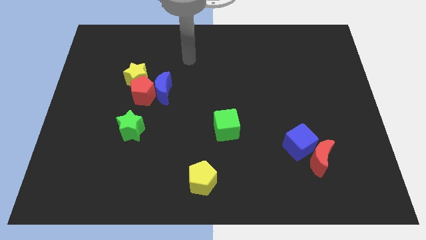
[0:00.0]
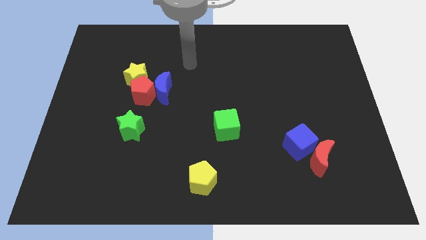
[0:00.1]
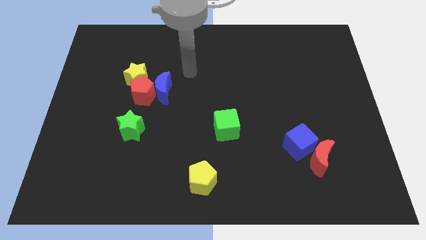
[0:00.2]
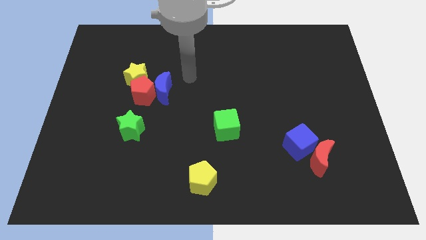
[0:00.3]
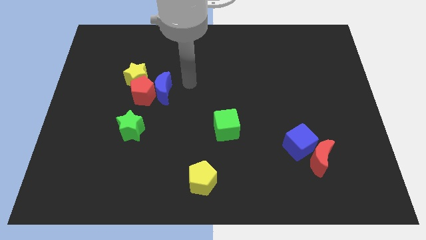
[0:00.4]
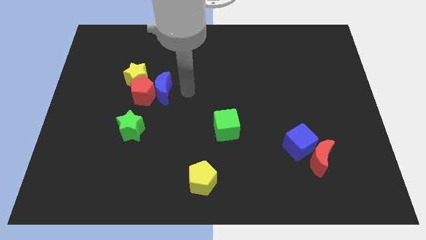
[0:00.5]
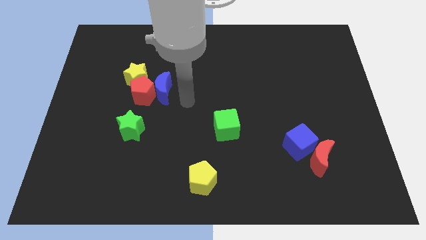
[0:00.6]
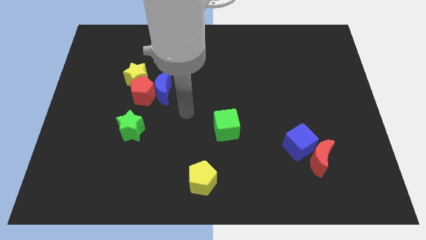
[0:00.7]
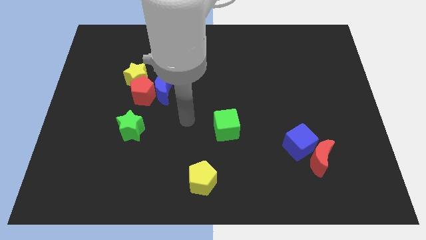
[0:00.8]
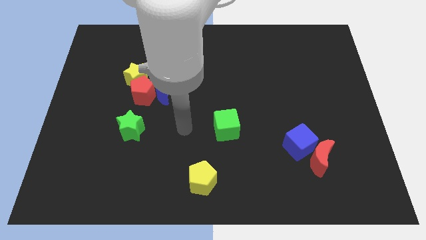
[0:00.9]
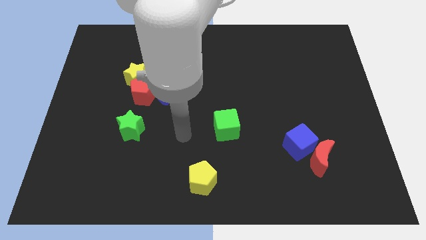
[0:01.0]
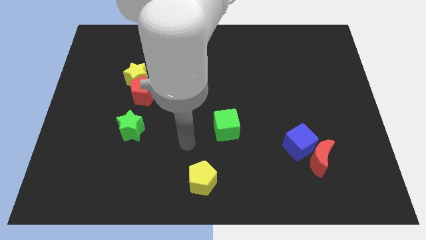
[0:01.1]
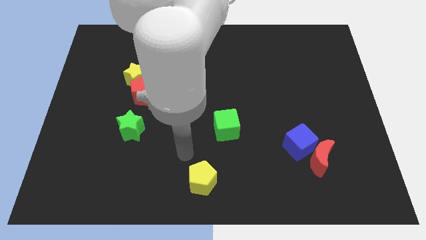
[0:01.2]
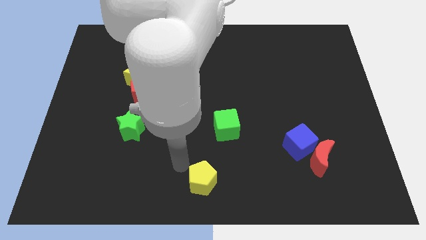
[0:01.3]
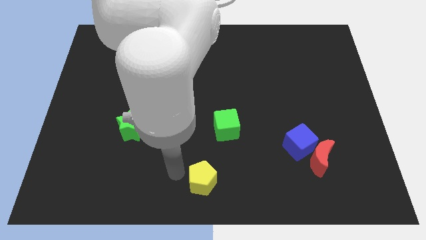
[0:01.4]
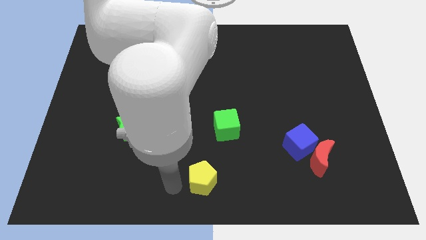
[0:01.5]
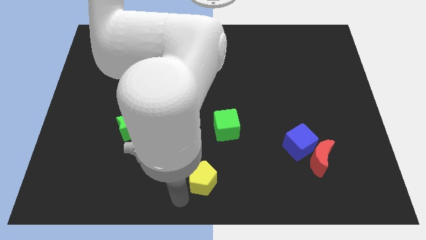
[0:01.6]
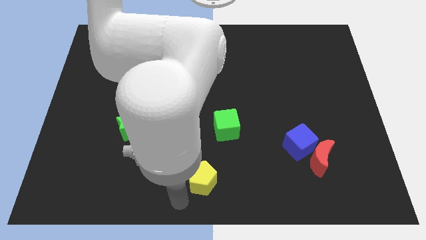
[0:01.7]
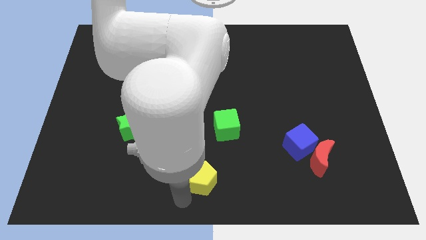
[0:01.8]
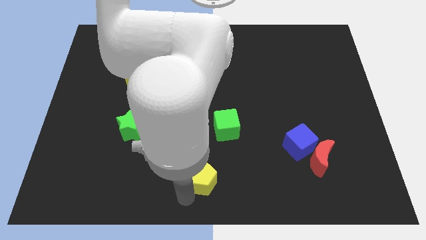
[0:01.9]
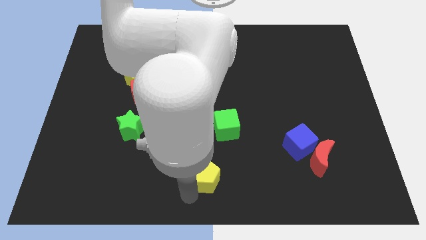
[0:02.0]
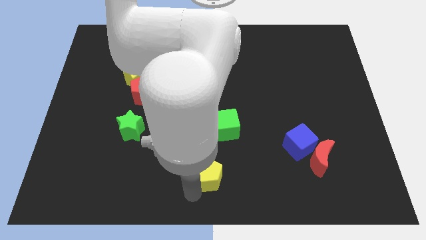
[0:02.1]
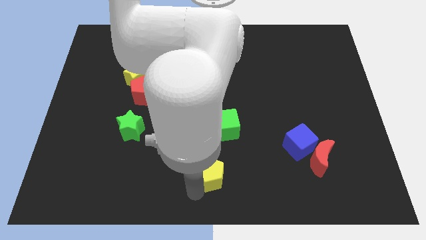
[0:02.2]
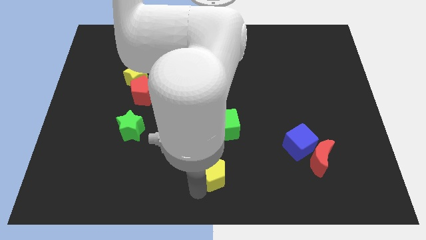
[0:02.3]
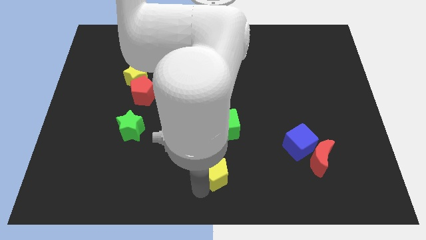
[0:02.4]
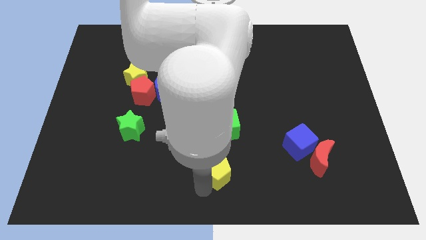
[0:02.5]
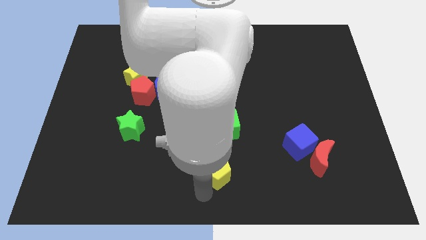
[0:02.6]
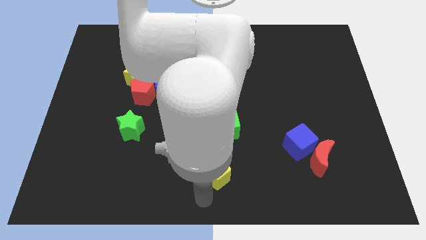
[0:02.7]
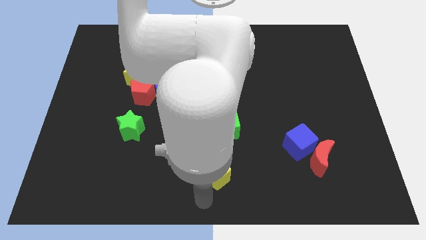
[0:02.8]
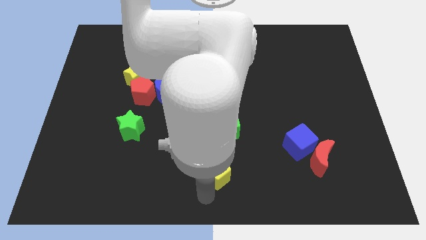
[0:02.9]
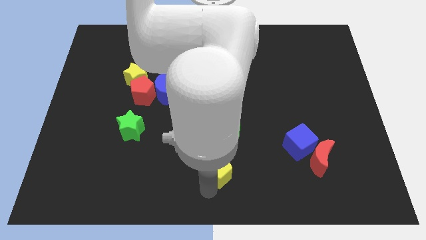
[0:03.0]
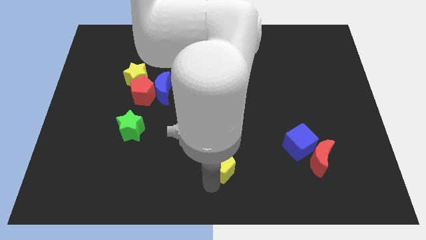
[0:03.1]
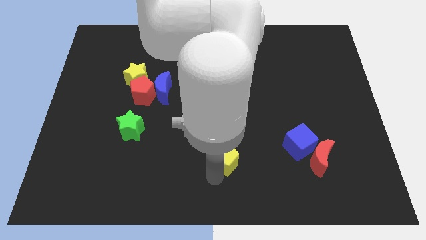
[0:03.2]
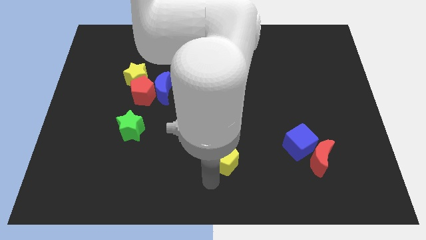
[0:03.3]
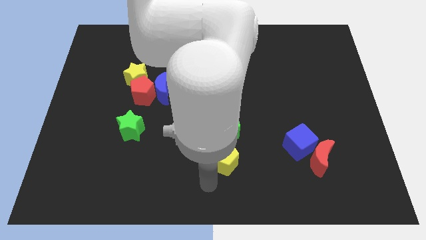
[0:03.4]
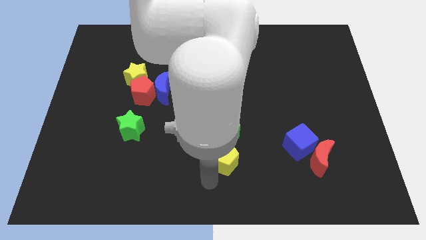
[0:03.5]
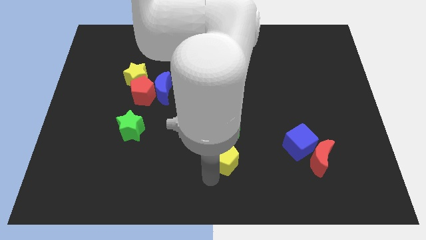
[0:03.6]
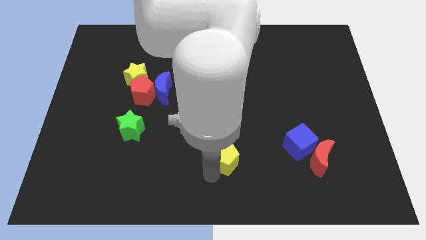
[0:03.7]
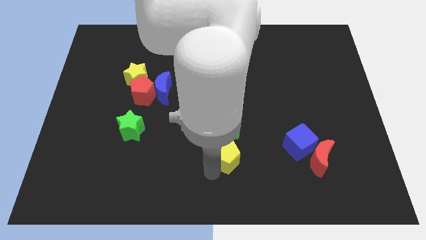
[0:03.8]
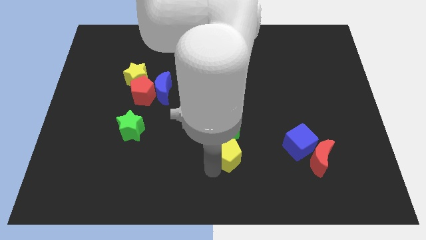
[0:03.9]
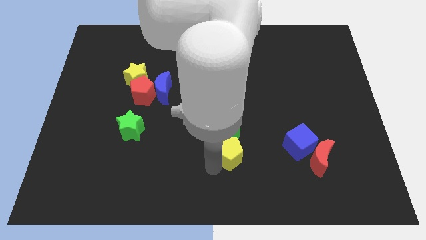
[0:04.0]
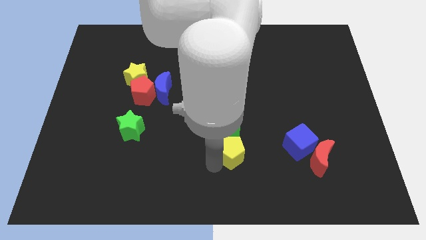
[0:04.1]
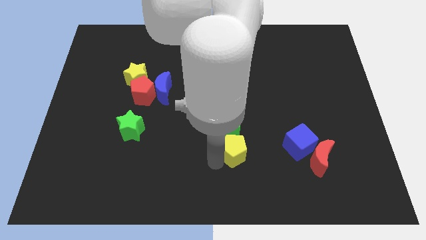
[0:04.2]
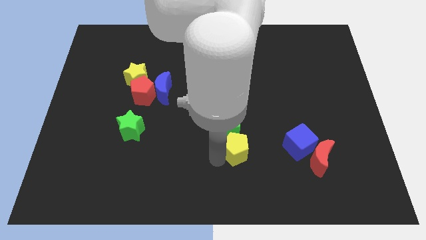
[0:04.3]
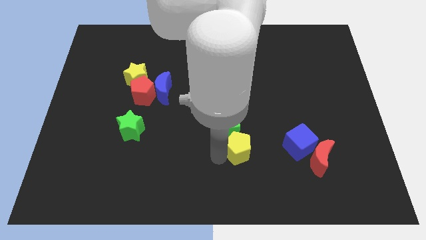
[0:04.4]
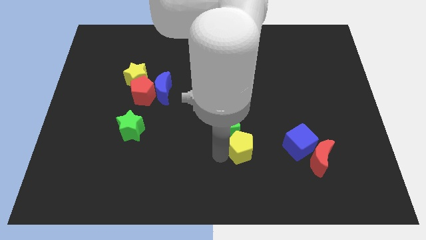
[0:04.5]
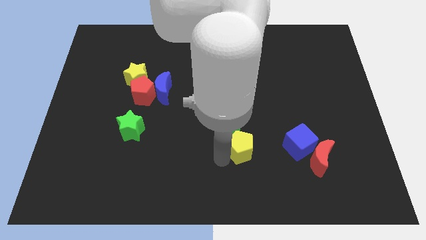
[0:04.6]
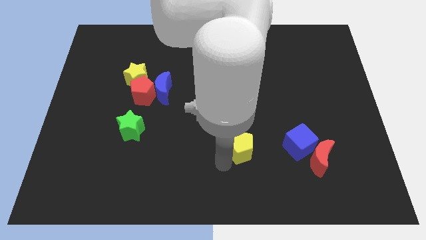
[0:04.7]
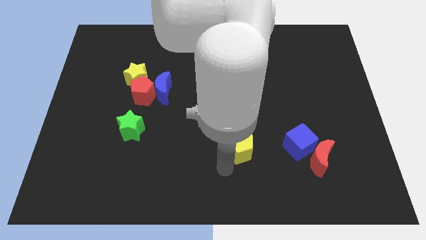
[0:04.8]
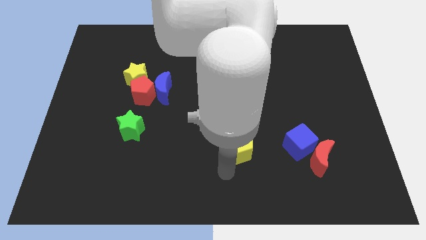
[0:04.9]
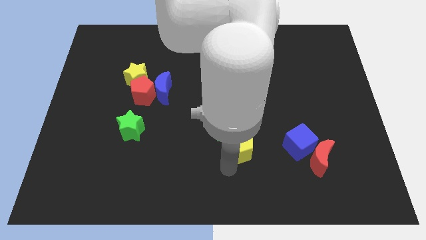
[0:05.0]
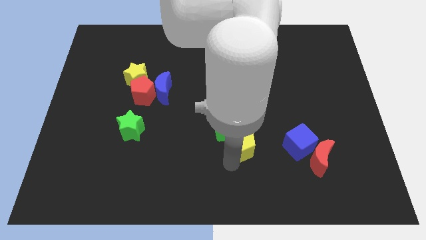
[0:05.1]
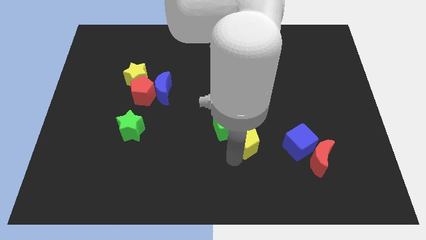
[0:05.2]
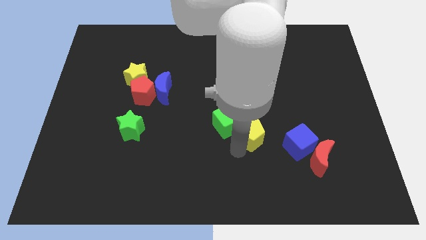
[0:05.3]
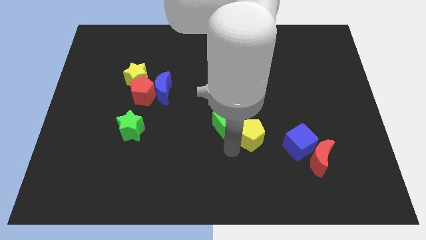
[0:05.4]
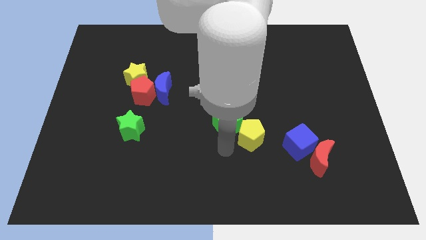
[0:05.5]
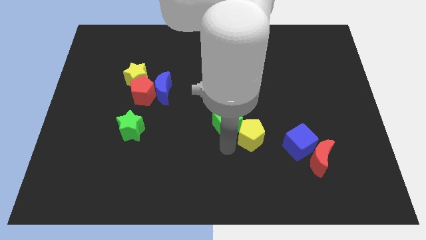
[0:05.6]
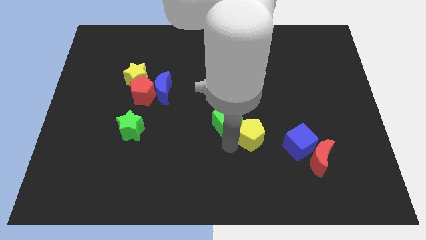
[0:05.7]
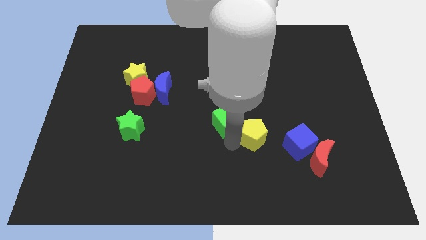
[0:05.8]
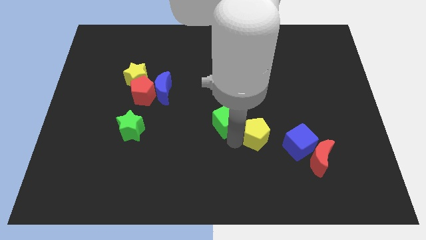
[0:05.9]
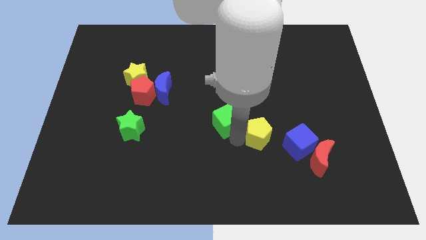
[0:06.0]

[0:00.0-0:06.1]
put the yellow pentagon to the top left side of the blue cube
